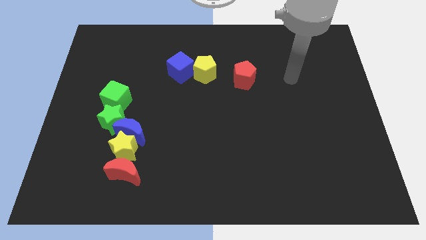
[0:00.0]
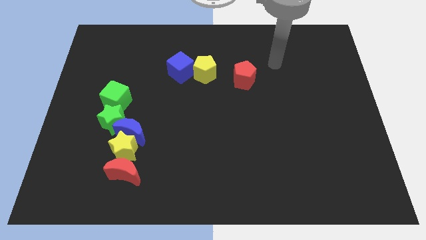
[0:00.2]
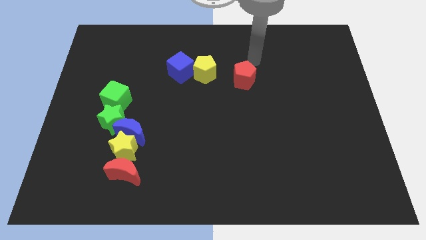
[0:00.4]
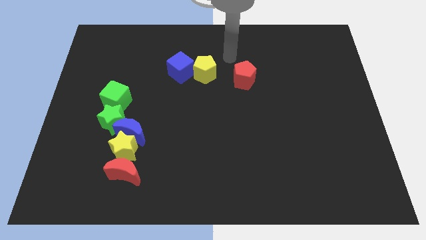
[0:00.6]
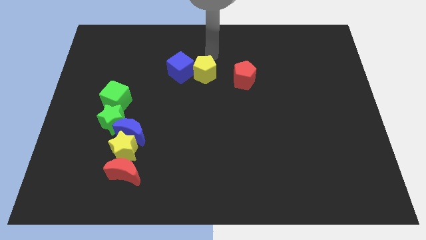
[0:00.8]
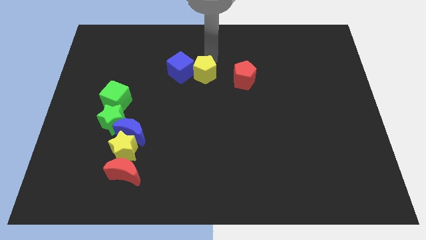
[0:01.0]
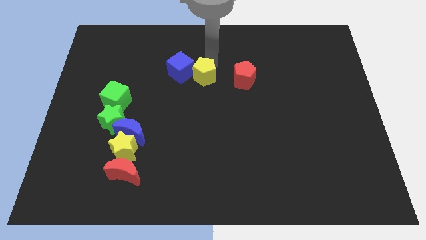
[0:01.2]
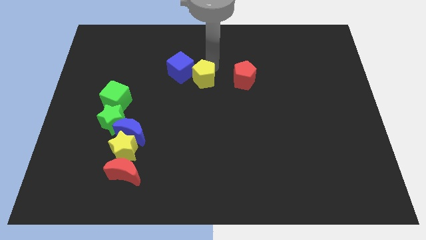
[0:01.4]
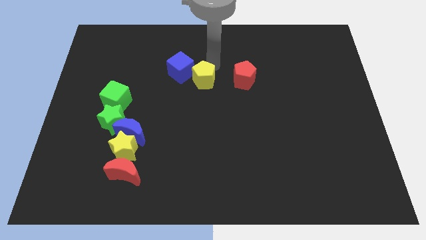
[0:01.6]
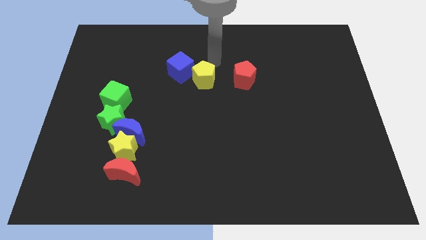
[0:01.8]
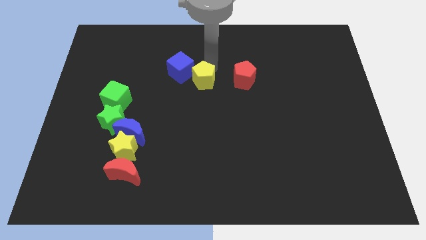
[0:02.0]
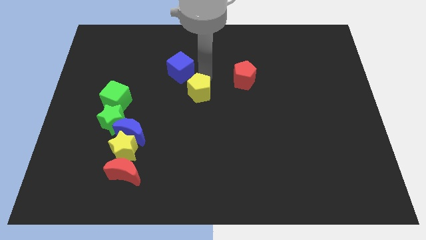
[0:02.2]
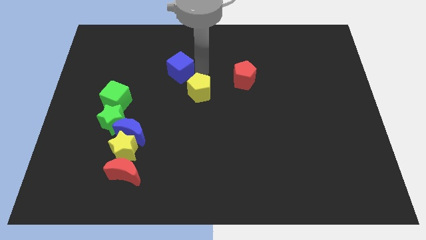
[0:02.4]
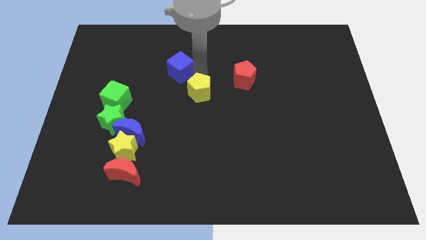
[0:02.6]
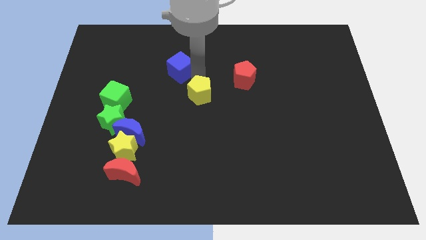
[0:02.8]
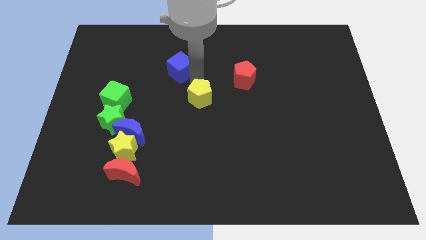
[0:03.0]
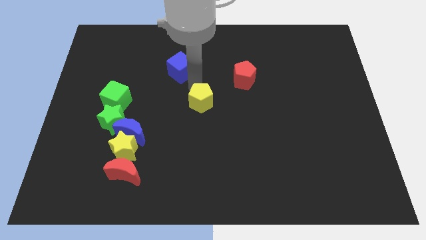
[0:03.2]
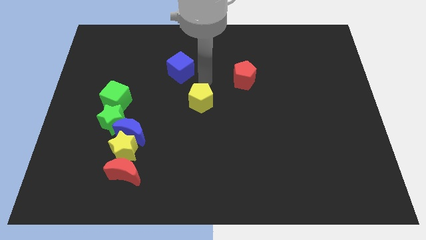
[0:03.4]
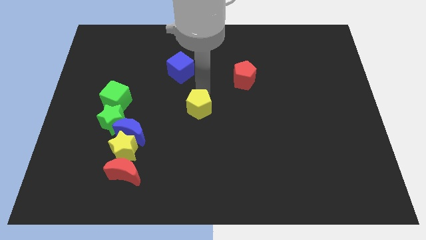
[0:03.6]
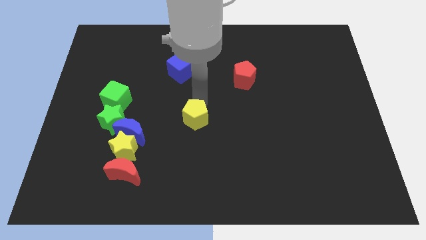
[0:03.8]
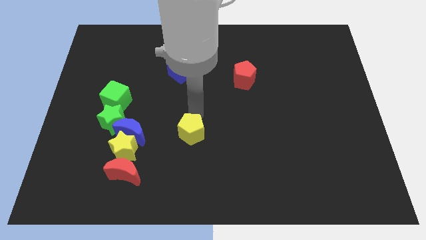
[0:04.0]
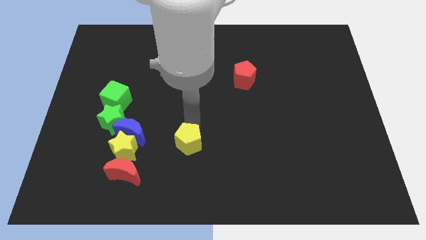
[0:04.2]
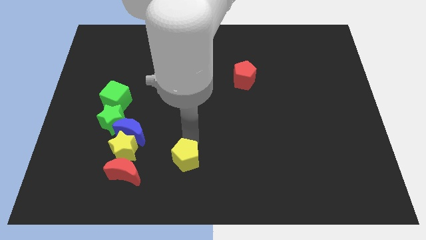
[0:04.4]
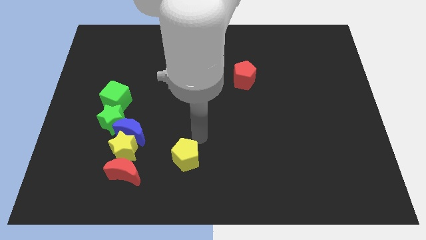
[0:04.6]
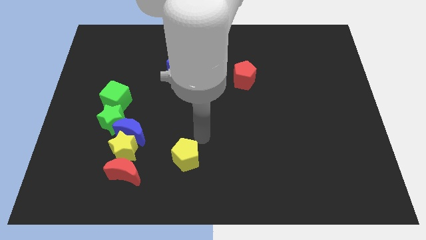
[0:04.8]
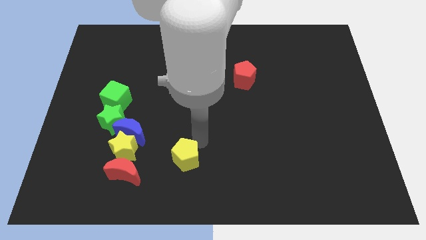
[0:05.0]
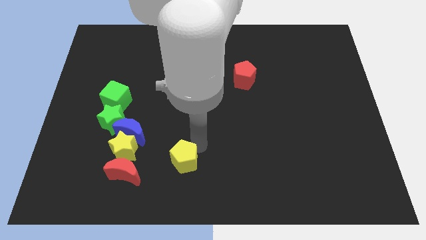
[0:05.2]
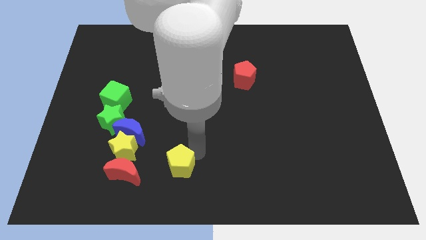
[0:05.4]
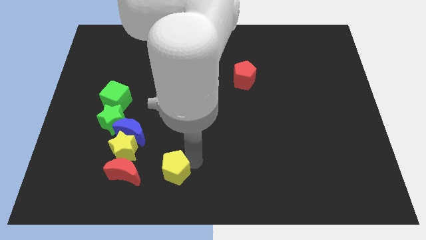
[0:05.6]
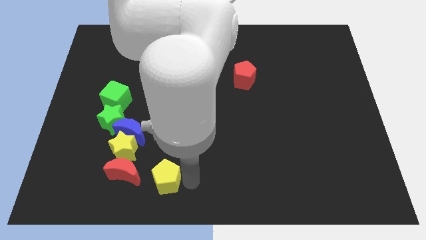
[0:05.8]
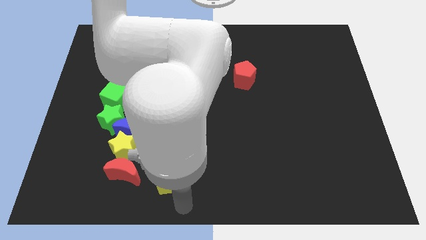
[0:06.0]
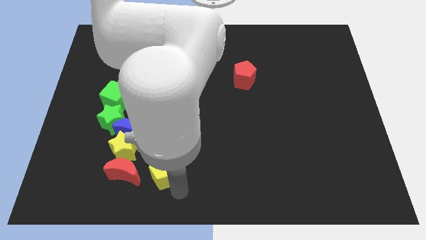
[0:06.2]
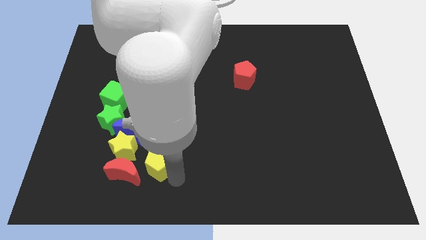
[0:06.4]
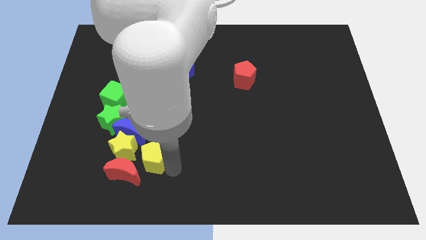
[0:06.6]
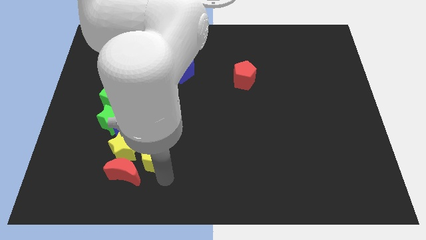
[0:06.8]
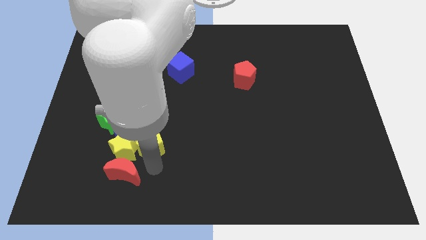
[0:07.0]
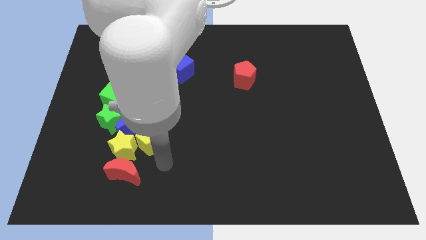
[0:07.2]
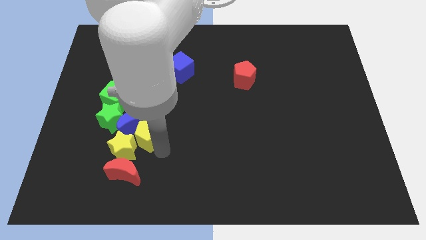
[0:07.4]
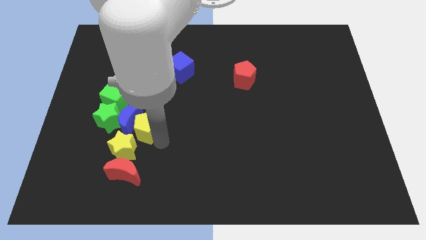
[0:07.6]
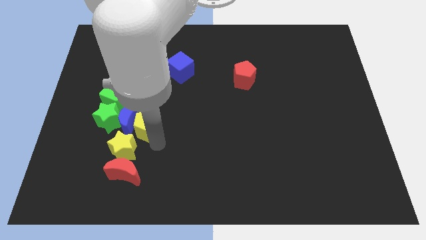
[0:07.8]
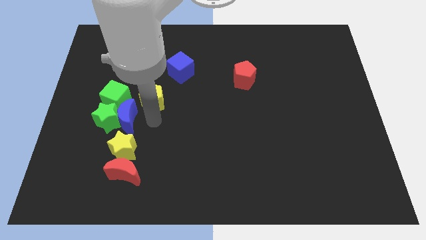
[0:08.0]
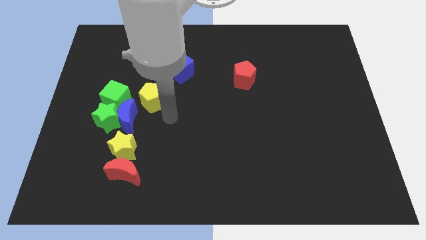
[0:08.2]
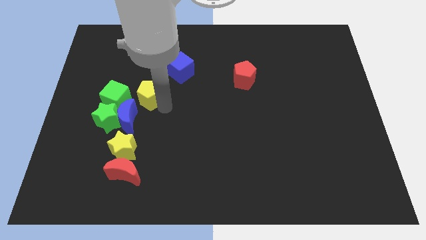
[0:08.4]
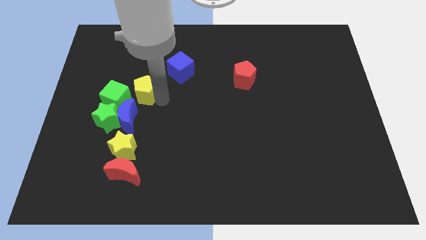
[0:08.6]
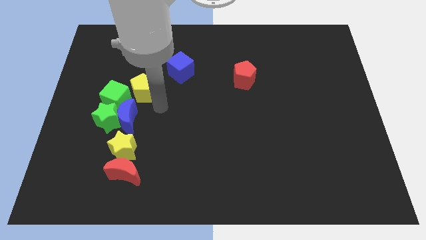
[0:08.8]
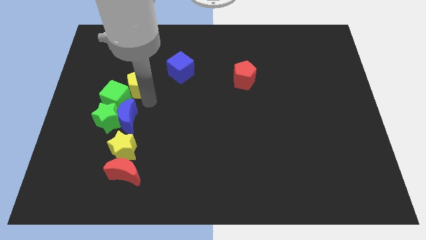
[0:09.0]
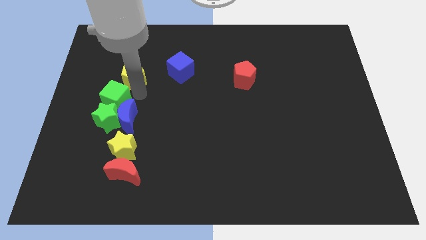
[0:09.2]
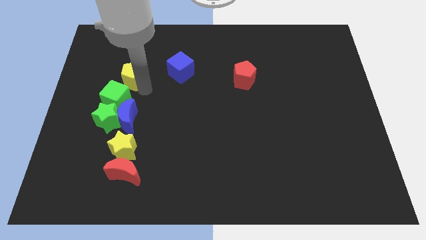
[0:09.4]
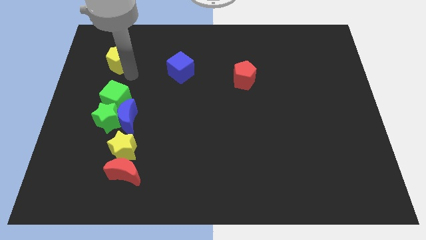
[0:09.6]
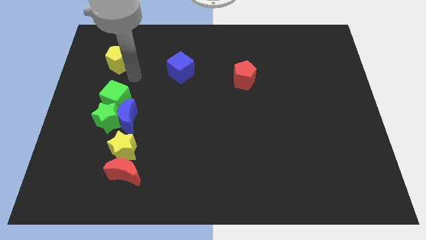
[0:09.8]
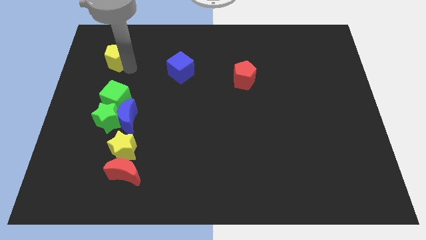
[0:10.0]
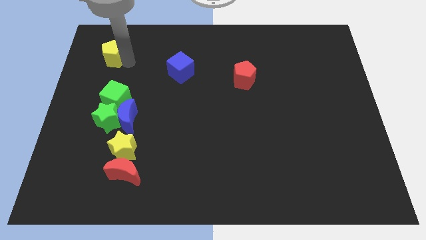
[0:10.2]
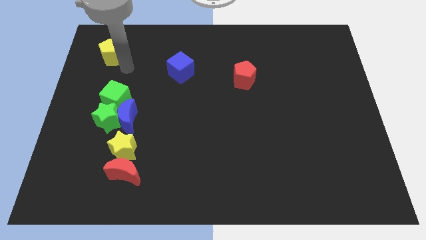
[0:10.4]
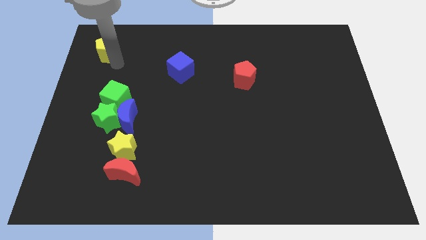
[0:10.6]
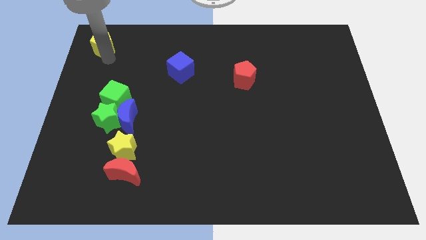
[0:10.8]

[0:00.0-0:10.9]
put the yellow pentagon to the top left corner

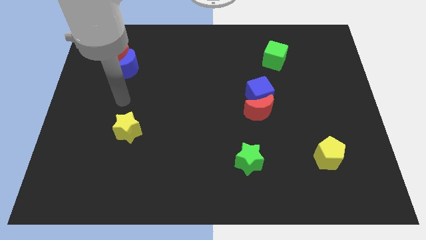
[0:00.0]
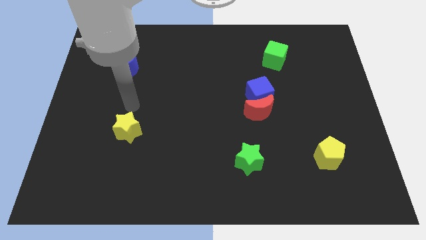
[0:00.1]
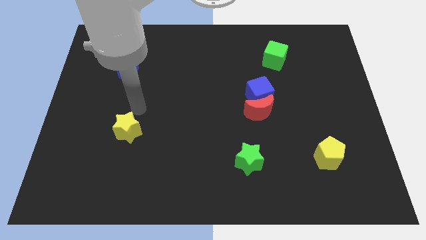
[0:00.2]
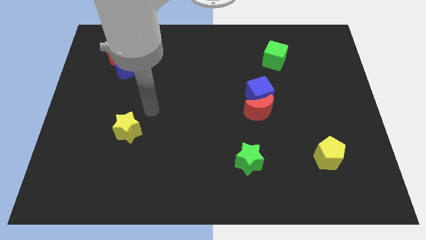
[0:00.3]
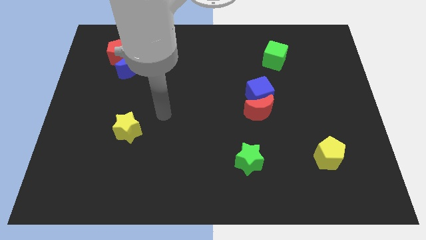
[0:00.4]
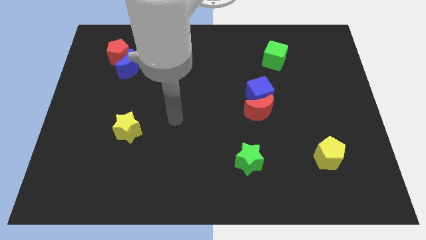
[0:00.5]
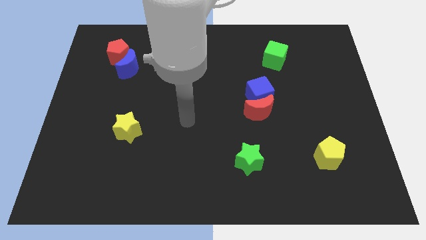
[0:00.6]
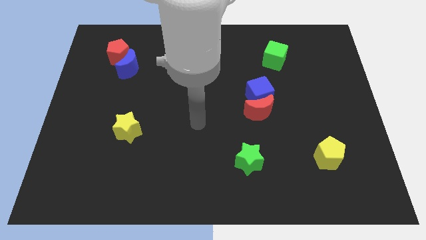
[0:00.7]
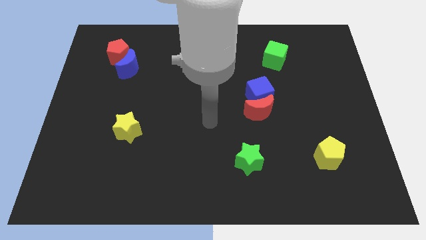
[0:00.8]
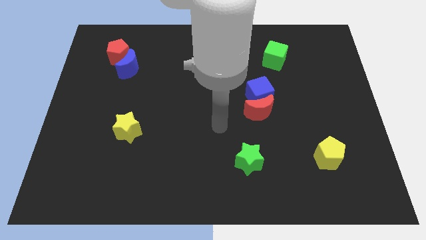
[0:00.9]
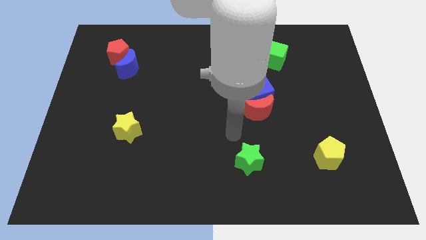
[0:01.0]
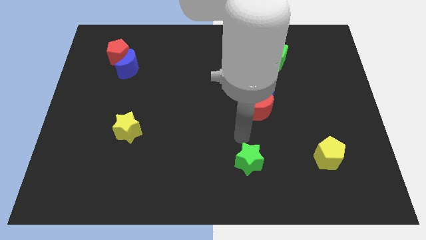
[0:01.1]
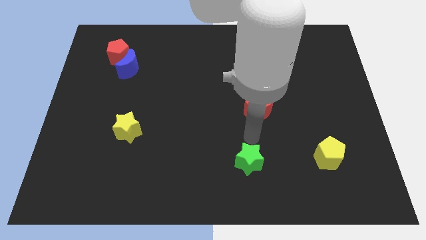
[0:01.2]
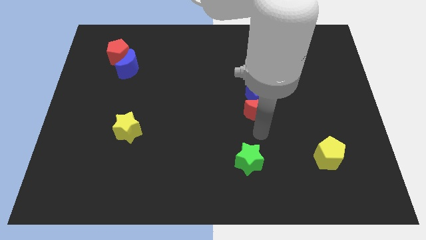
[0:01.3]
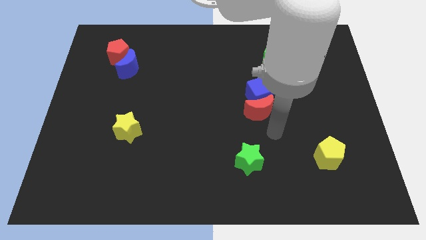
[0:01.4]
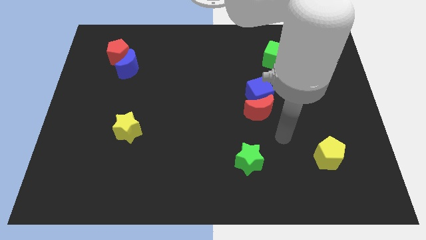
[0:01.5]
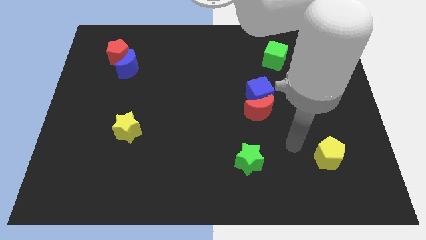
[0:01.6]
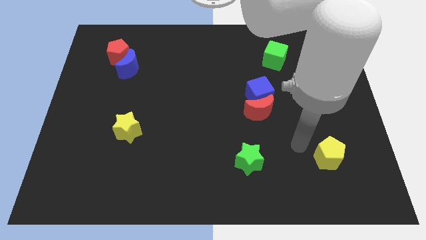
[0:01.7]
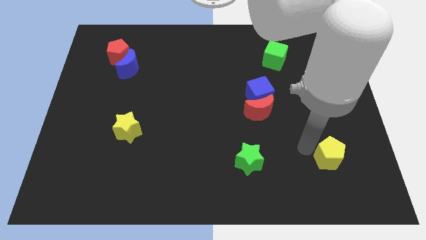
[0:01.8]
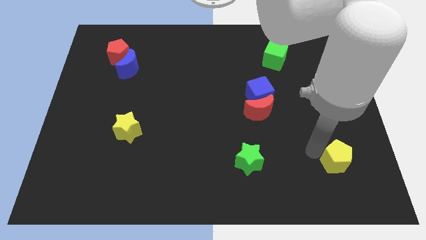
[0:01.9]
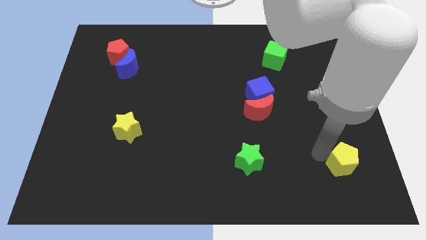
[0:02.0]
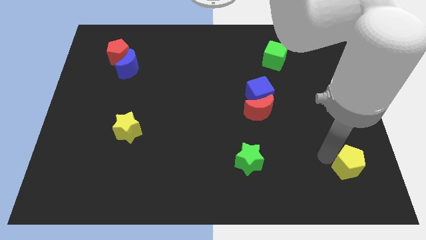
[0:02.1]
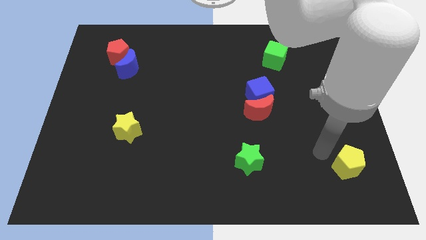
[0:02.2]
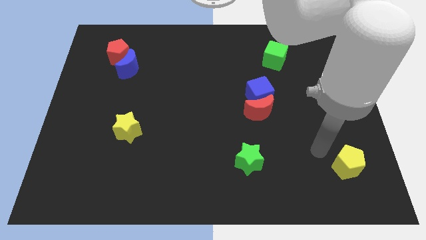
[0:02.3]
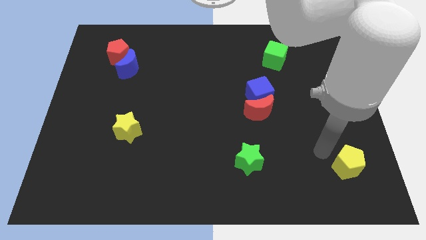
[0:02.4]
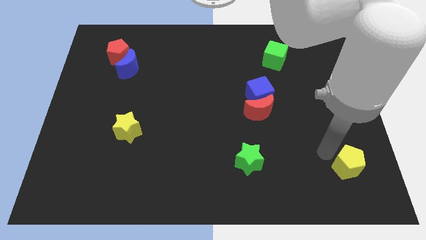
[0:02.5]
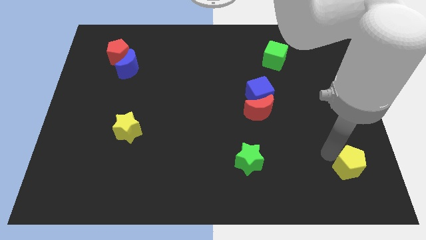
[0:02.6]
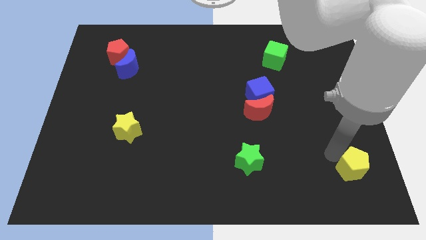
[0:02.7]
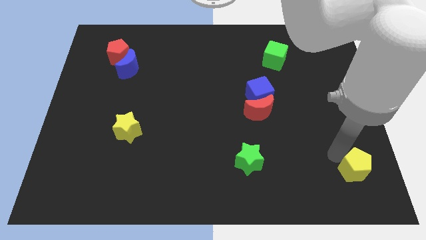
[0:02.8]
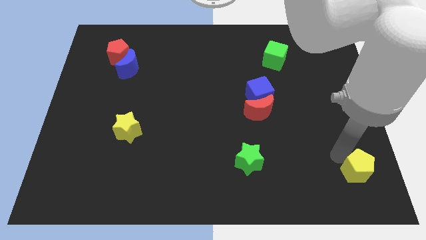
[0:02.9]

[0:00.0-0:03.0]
push the yellow pentagon to the lower right corner
